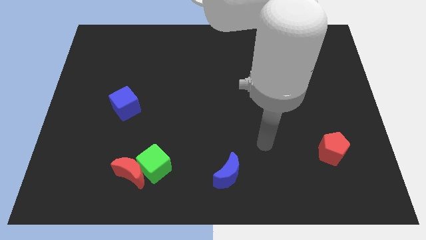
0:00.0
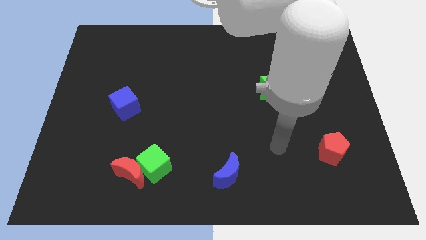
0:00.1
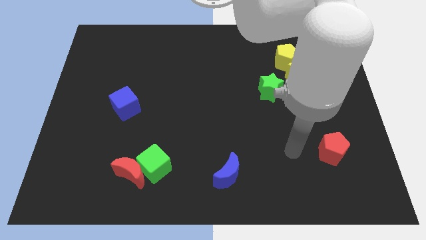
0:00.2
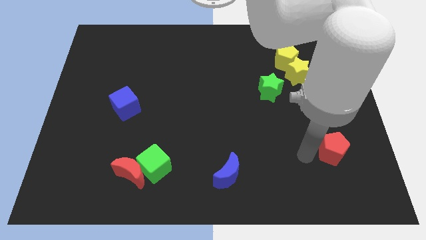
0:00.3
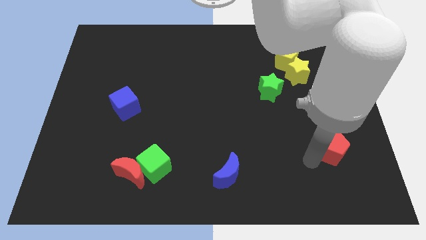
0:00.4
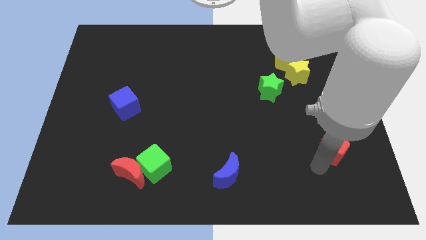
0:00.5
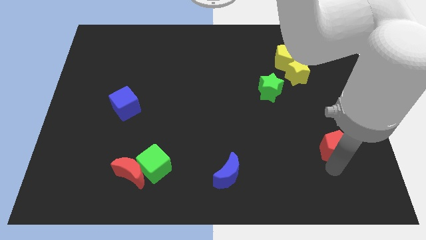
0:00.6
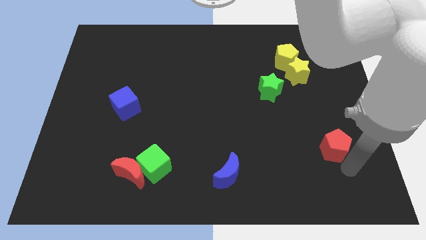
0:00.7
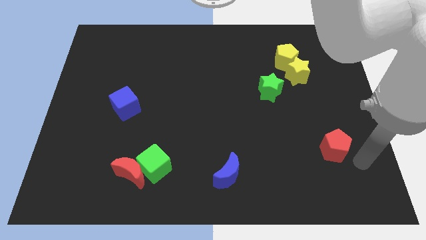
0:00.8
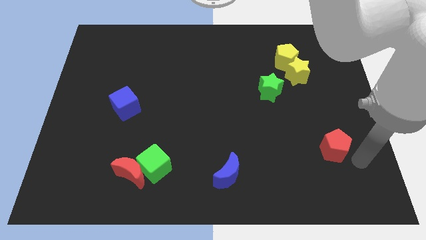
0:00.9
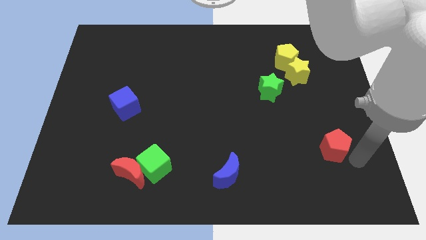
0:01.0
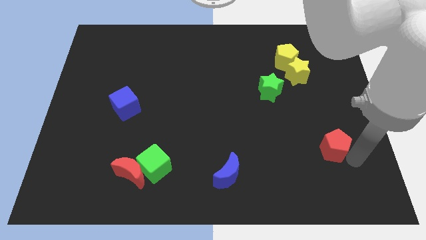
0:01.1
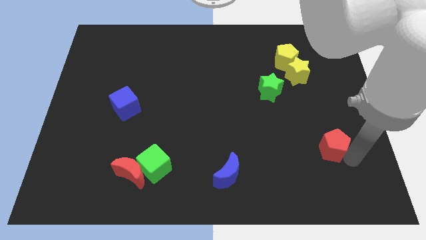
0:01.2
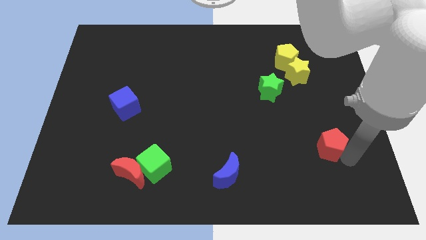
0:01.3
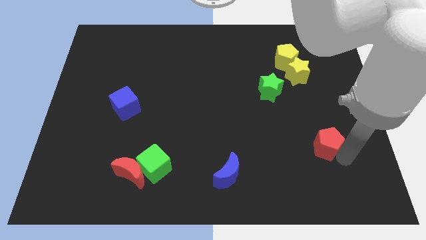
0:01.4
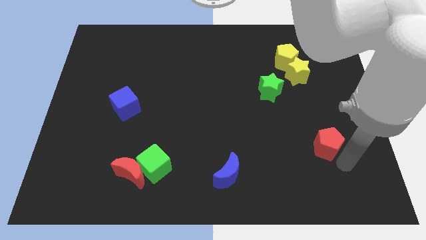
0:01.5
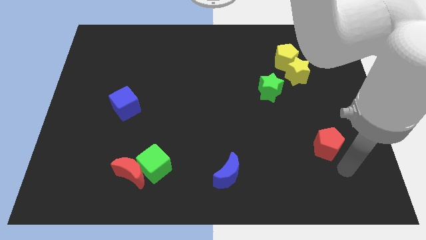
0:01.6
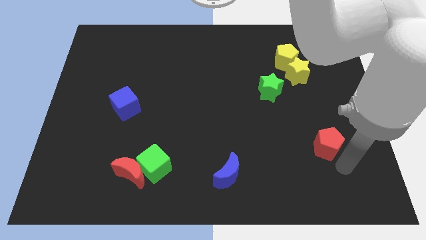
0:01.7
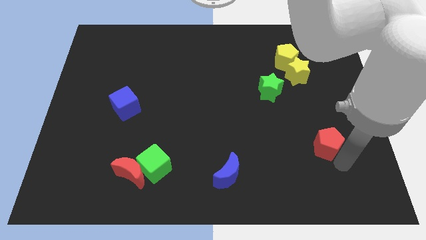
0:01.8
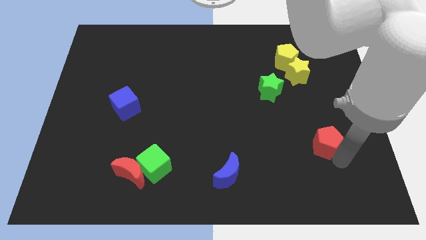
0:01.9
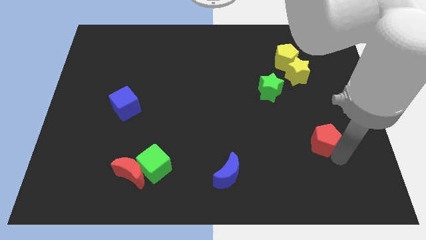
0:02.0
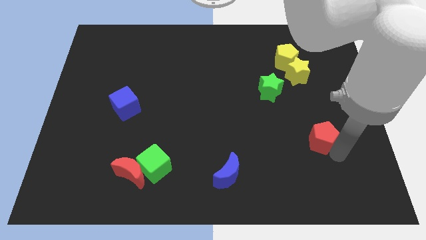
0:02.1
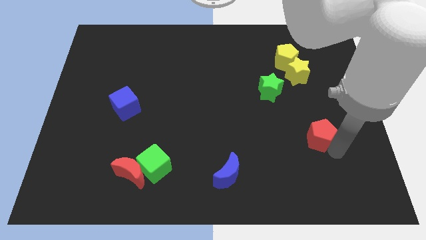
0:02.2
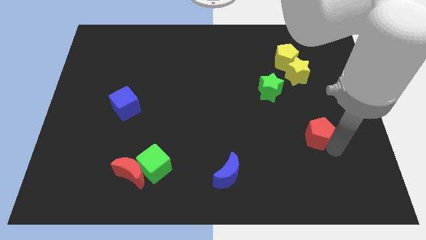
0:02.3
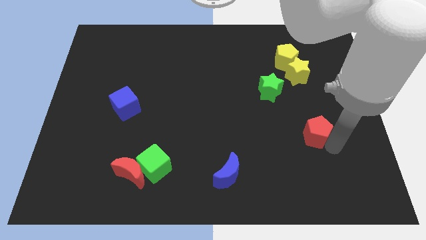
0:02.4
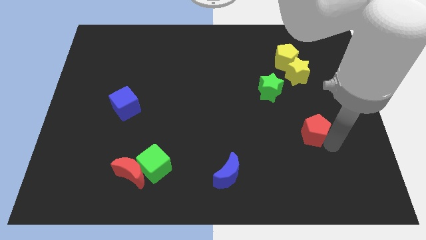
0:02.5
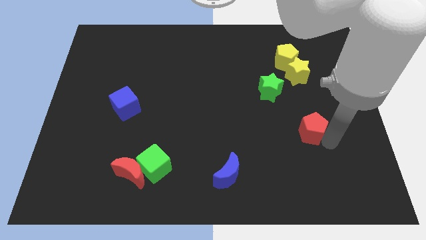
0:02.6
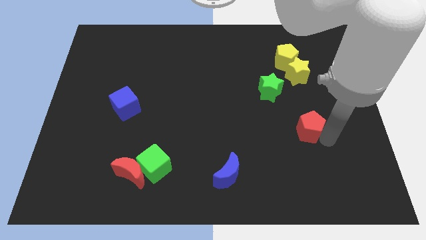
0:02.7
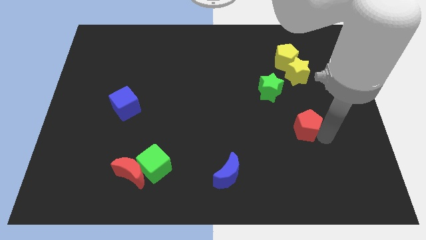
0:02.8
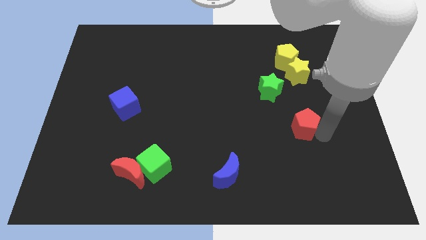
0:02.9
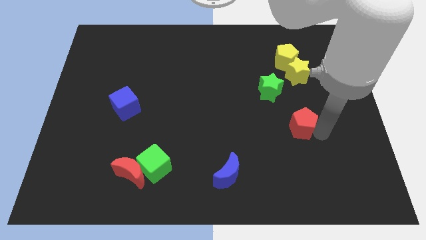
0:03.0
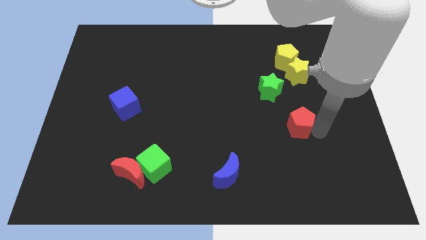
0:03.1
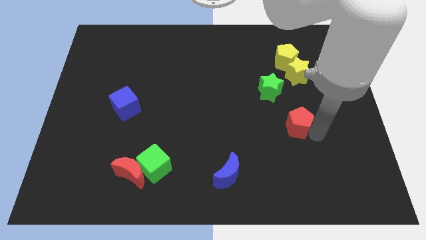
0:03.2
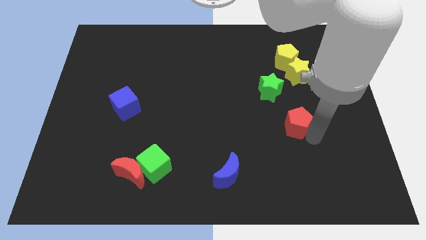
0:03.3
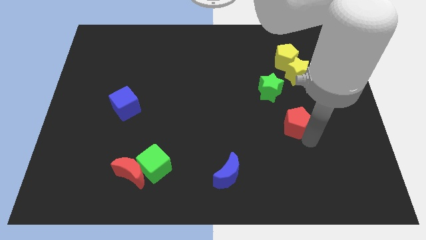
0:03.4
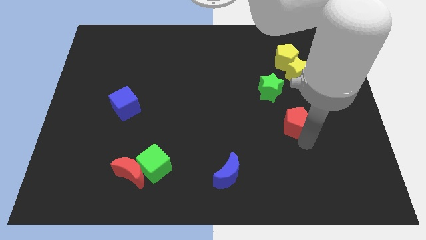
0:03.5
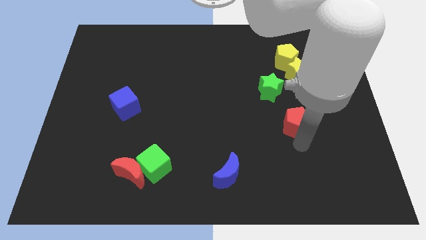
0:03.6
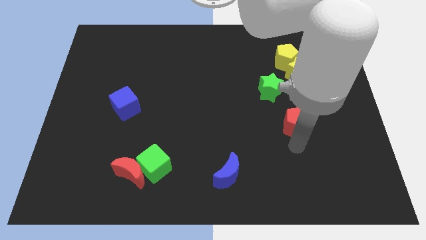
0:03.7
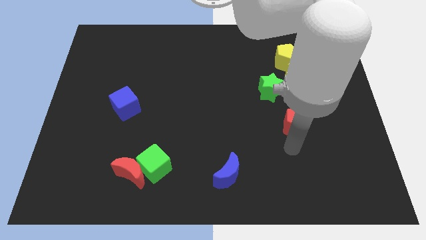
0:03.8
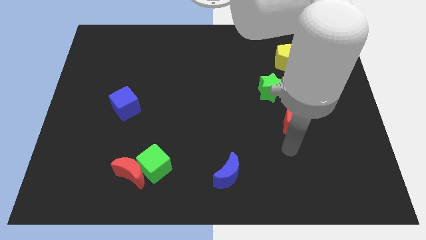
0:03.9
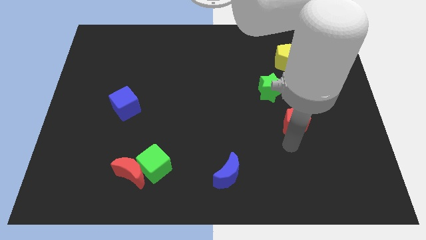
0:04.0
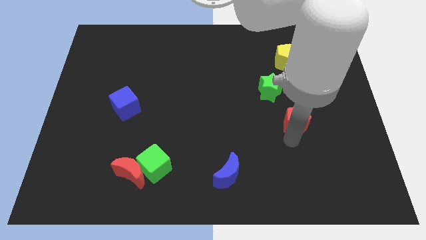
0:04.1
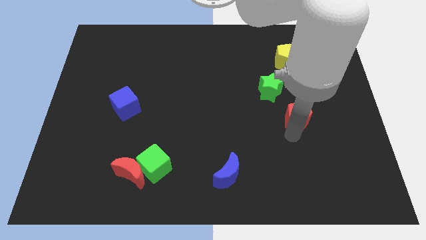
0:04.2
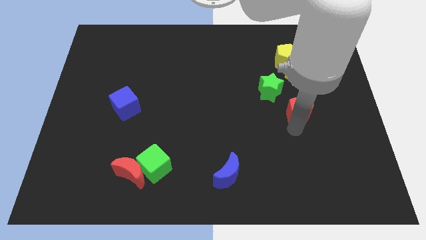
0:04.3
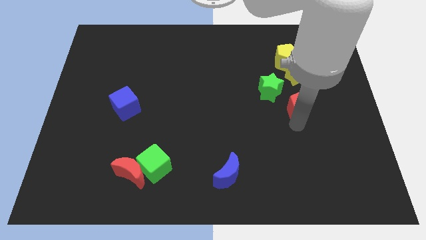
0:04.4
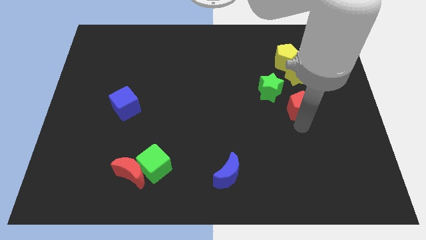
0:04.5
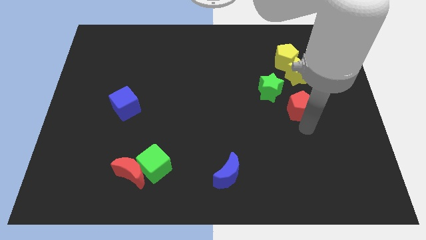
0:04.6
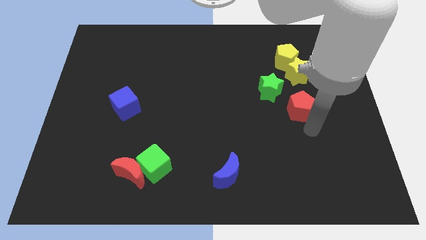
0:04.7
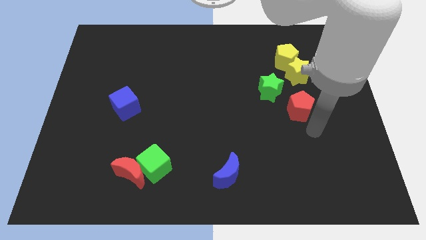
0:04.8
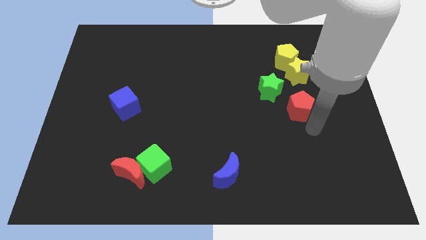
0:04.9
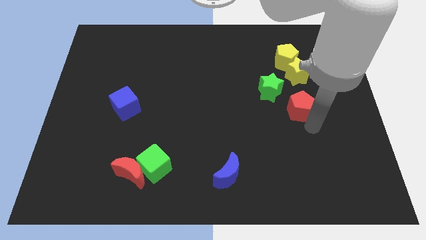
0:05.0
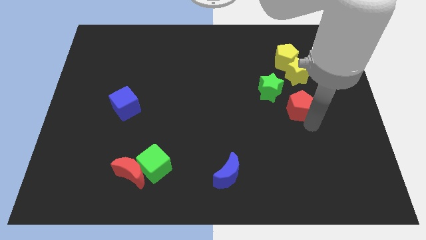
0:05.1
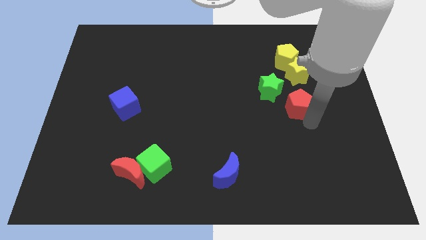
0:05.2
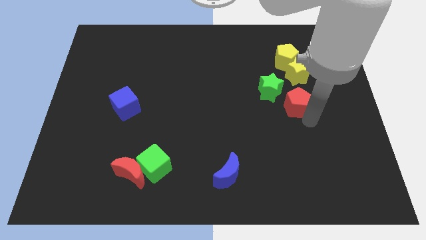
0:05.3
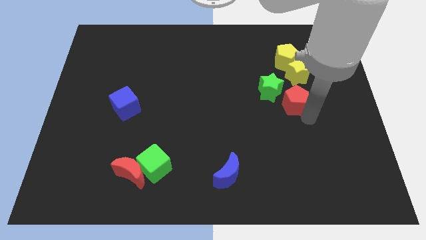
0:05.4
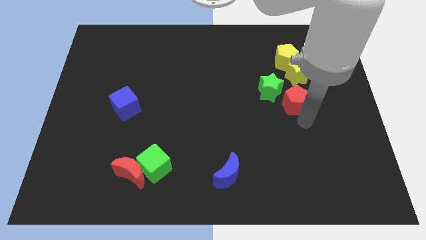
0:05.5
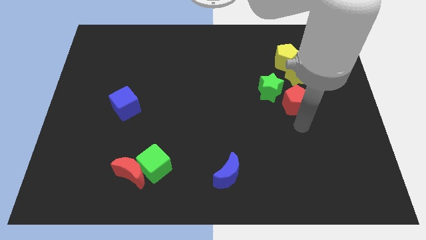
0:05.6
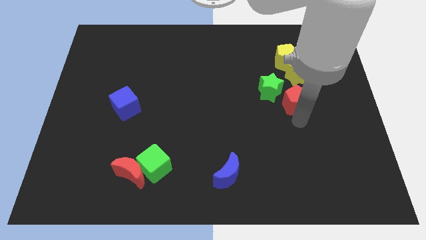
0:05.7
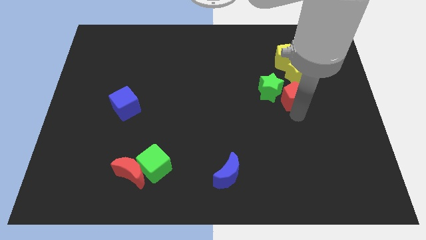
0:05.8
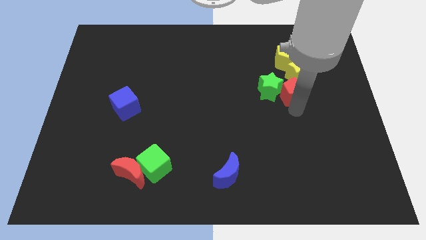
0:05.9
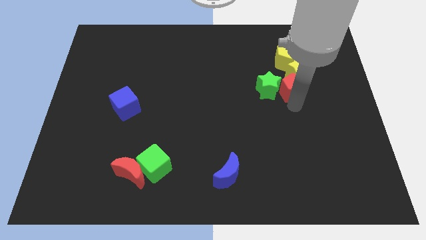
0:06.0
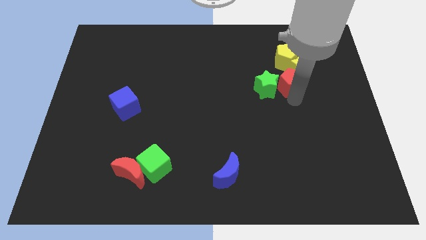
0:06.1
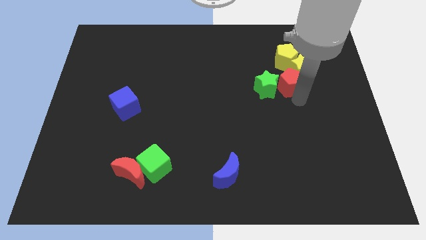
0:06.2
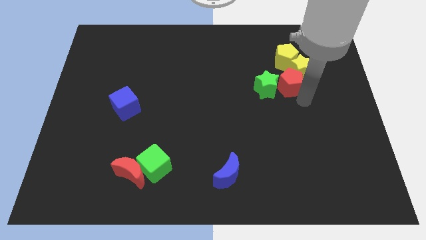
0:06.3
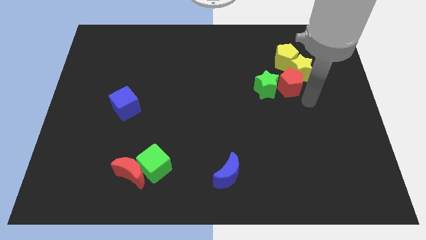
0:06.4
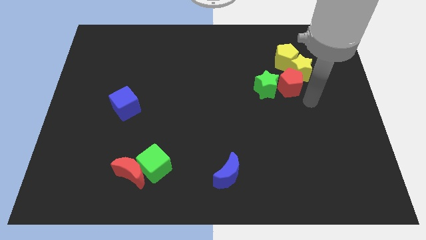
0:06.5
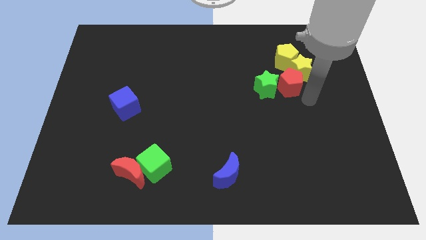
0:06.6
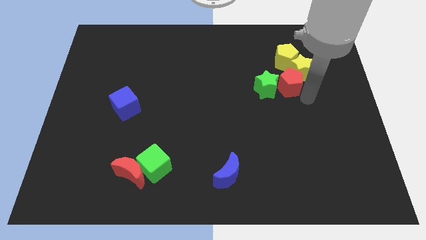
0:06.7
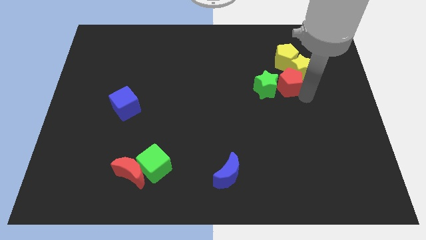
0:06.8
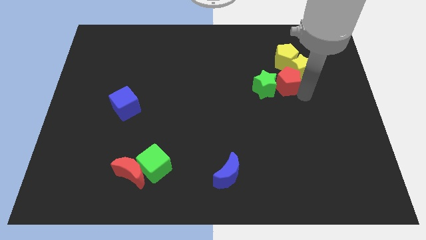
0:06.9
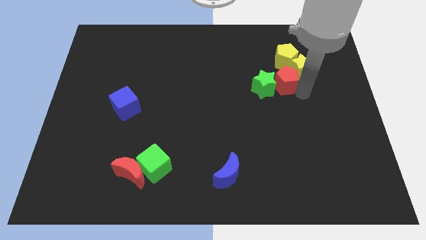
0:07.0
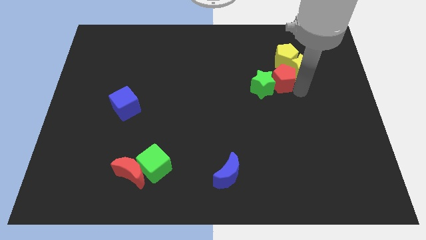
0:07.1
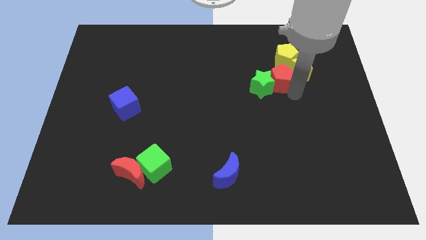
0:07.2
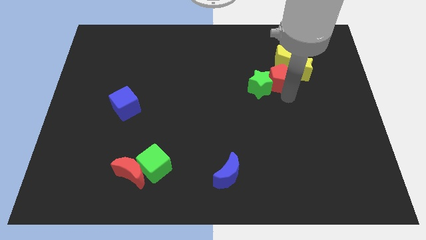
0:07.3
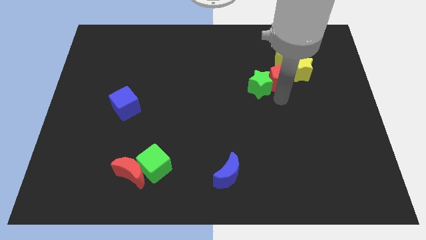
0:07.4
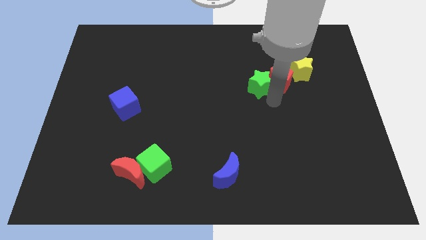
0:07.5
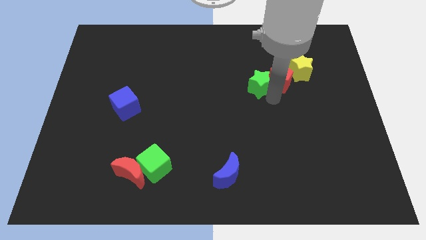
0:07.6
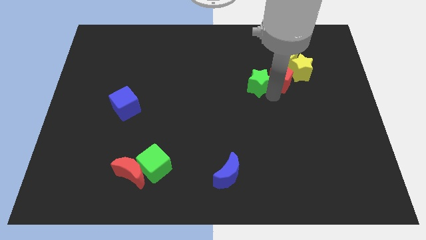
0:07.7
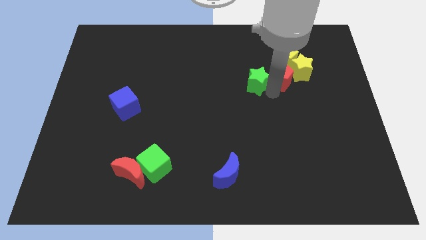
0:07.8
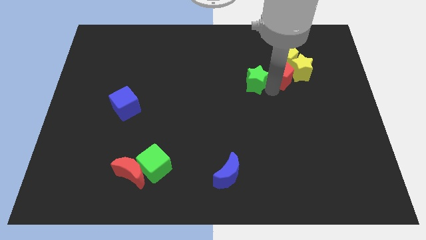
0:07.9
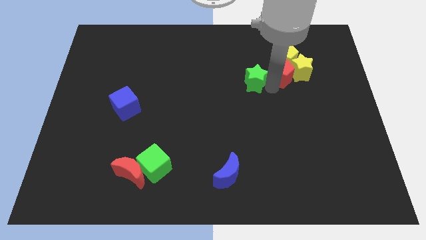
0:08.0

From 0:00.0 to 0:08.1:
put the red pentagon next to the yellow pentagon
